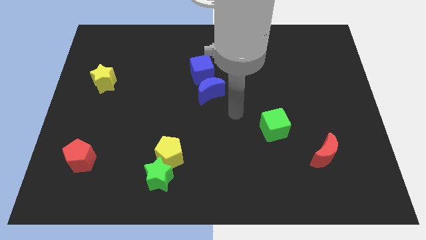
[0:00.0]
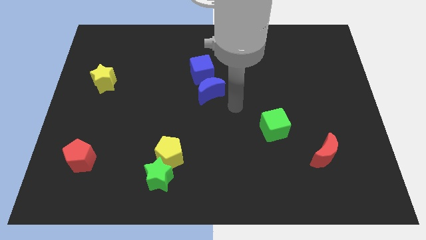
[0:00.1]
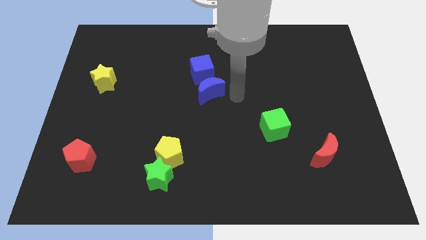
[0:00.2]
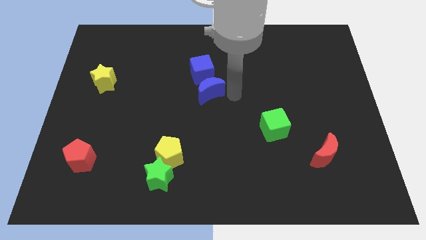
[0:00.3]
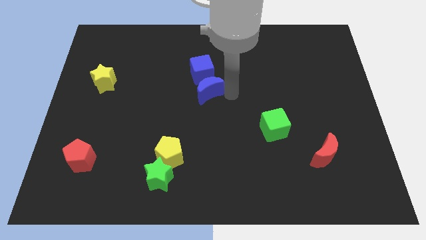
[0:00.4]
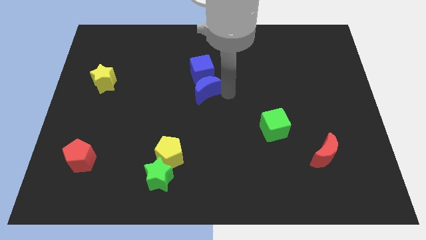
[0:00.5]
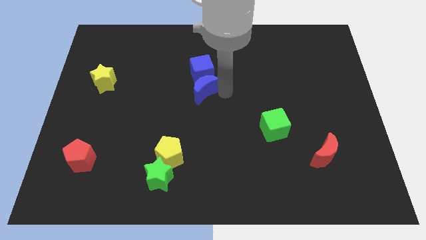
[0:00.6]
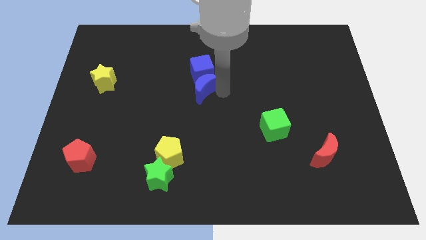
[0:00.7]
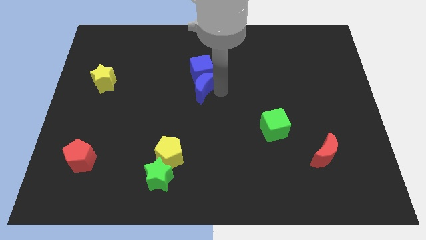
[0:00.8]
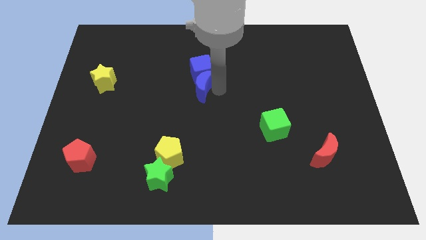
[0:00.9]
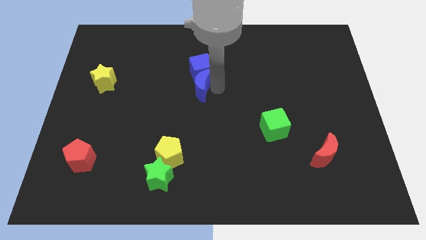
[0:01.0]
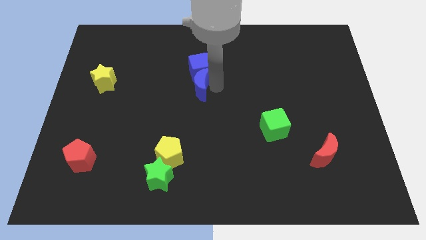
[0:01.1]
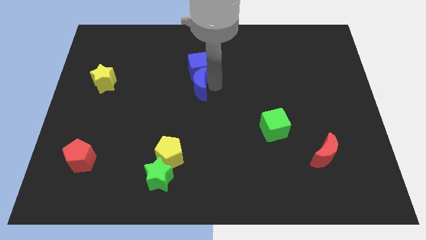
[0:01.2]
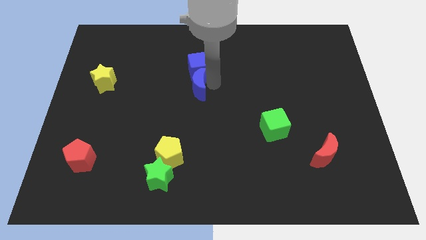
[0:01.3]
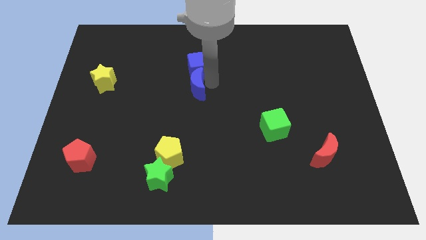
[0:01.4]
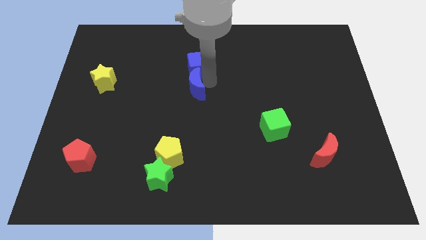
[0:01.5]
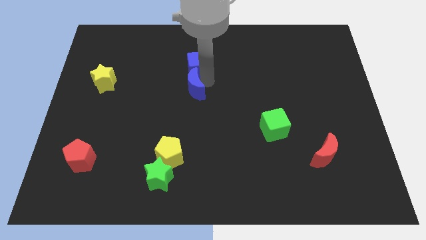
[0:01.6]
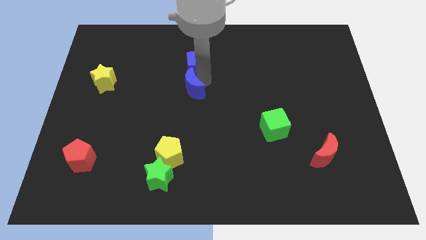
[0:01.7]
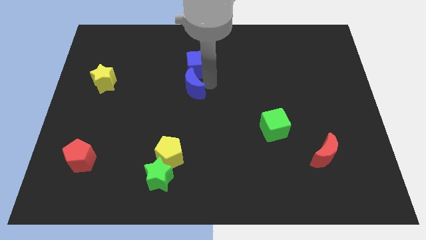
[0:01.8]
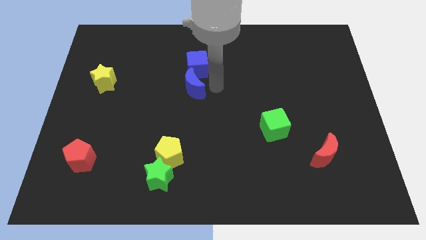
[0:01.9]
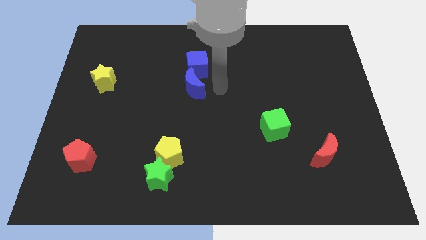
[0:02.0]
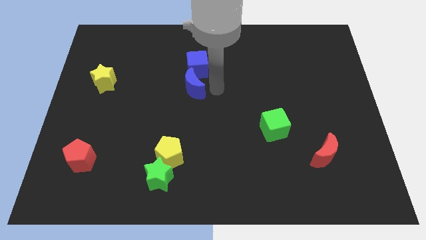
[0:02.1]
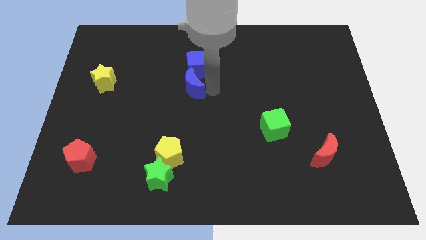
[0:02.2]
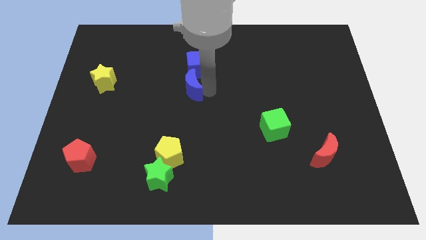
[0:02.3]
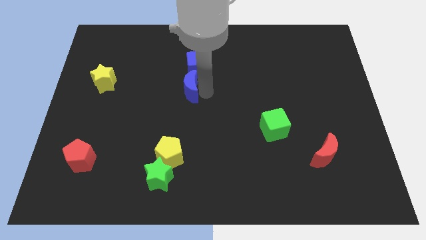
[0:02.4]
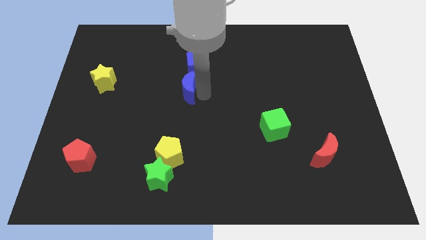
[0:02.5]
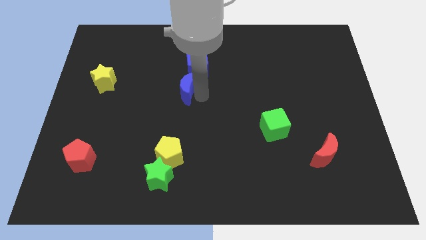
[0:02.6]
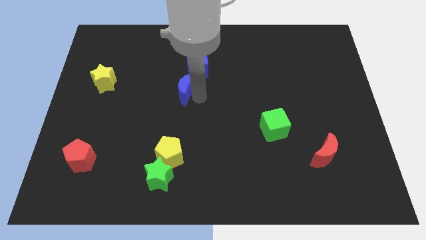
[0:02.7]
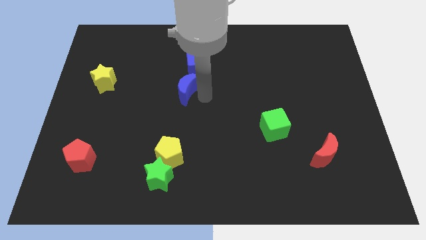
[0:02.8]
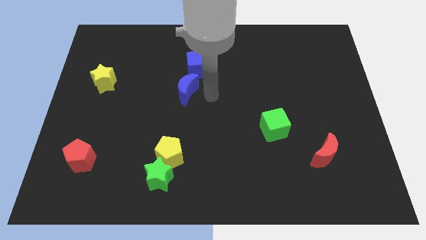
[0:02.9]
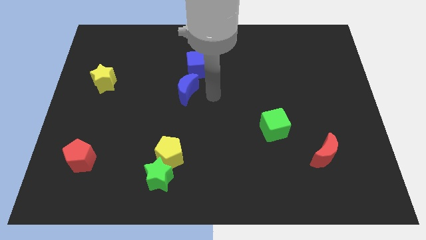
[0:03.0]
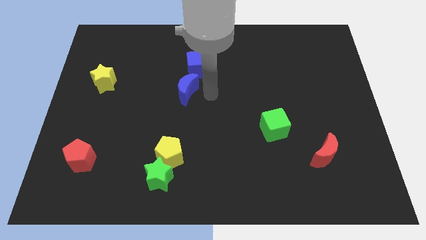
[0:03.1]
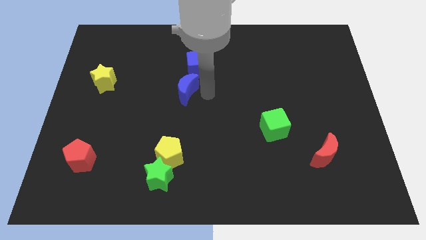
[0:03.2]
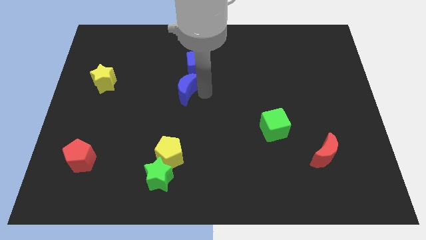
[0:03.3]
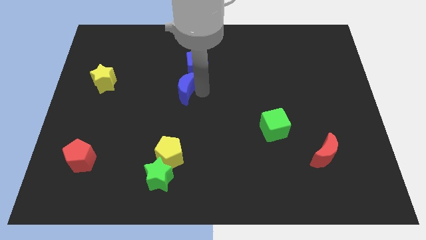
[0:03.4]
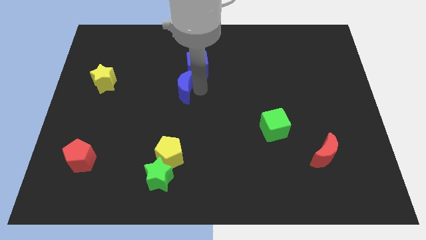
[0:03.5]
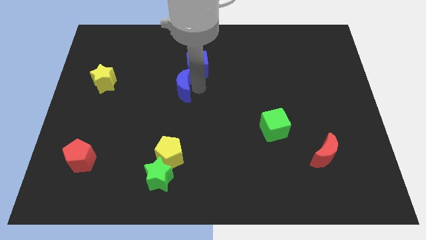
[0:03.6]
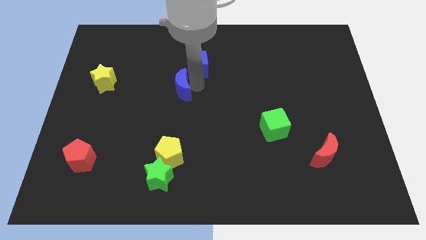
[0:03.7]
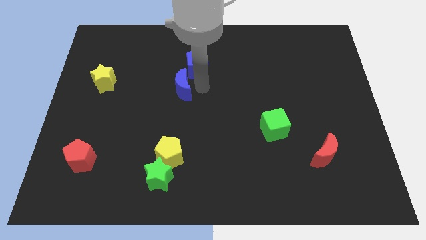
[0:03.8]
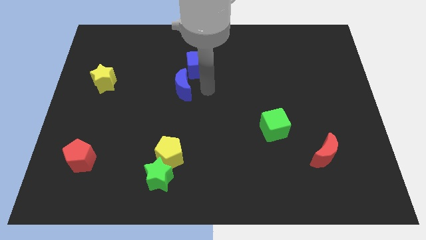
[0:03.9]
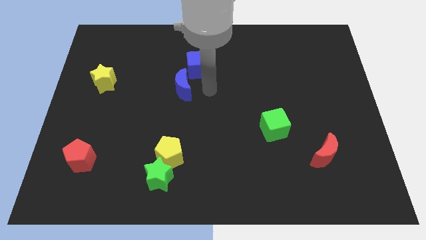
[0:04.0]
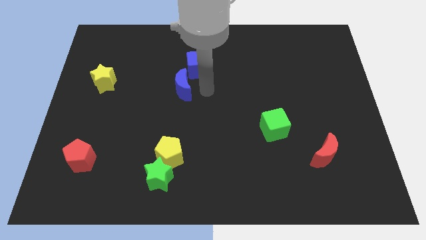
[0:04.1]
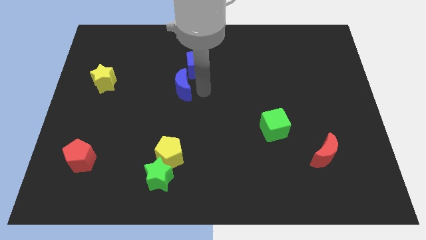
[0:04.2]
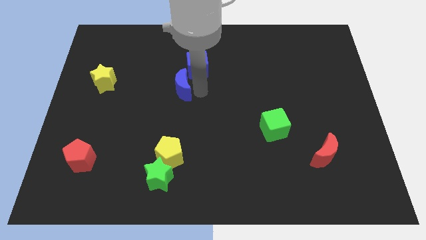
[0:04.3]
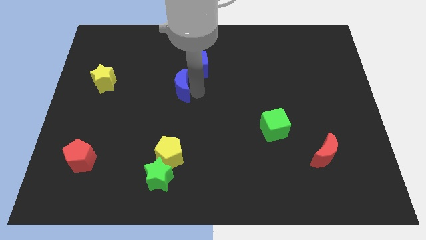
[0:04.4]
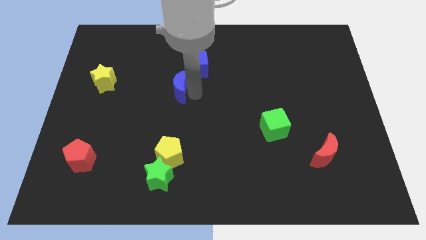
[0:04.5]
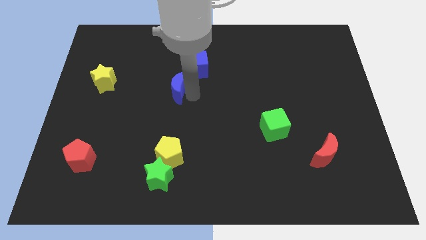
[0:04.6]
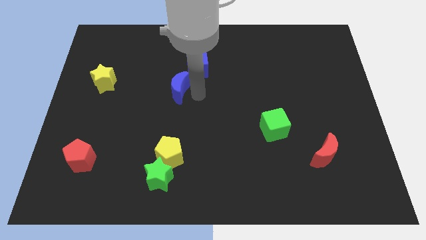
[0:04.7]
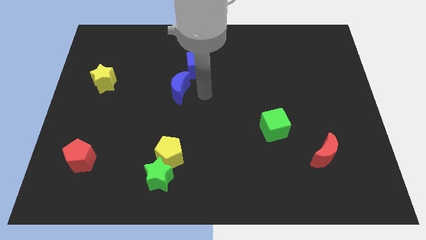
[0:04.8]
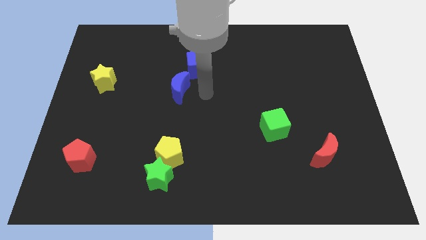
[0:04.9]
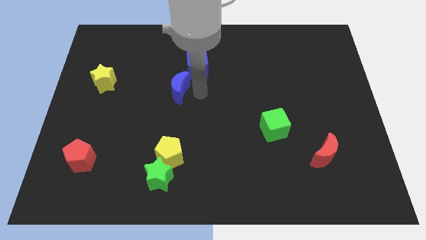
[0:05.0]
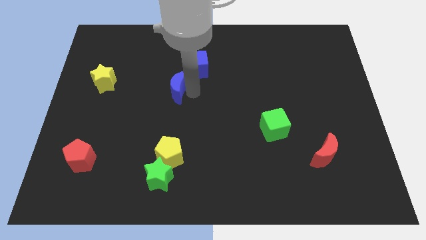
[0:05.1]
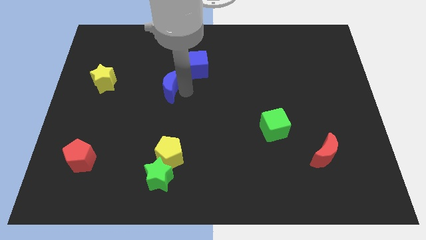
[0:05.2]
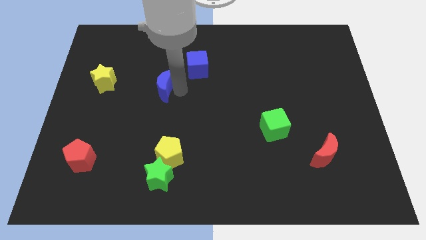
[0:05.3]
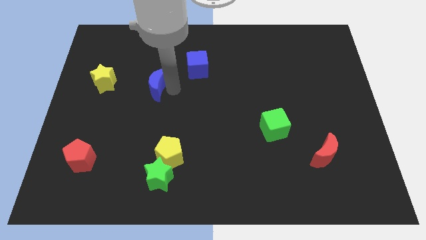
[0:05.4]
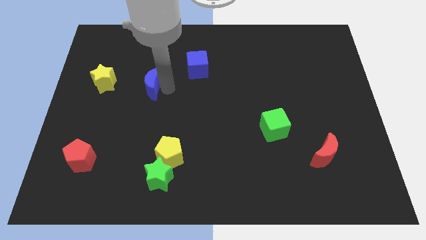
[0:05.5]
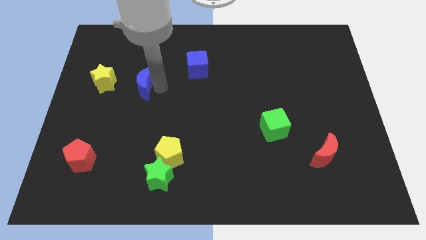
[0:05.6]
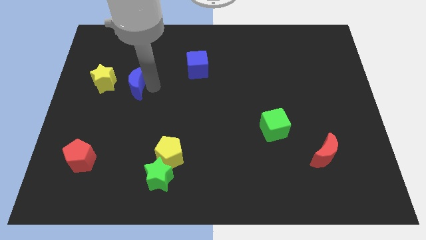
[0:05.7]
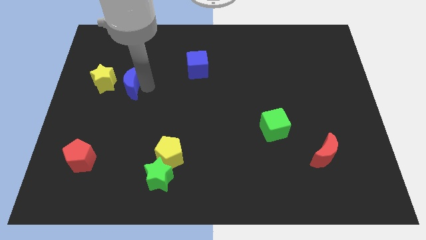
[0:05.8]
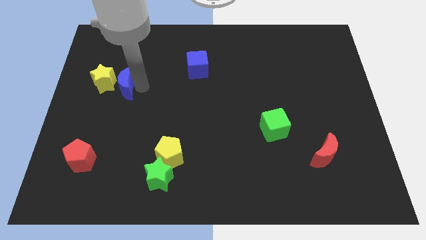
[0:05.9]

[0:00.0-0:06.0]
put the blue moon close to the yellow star

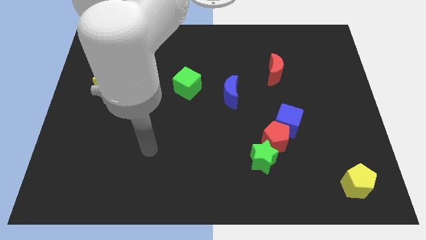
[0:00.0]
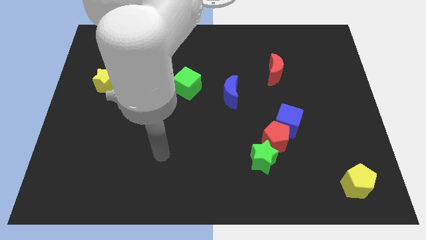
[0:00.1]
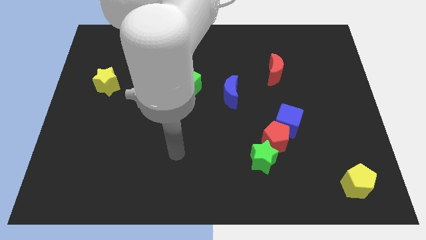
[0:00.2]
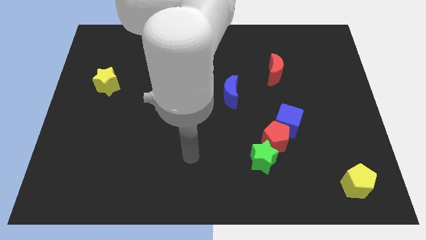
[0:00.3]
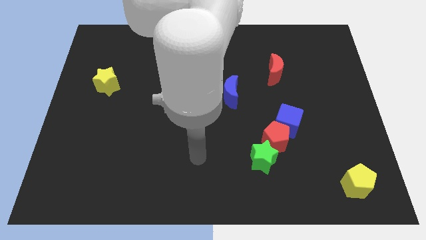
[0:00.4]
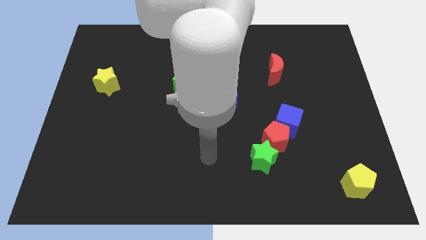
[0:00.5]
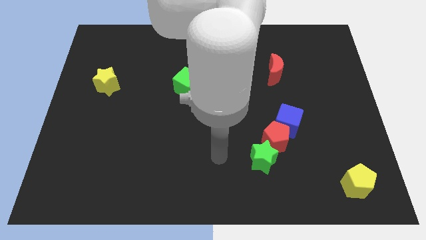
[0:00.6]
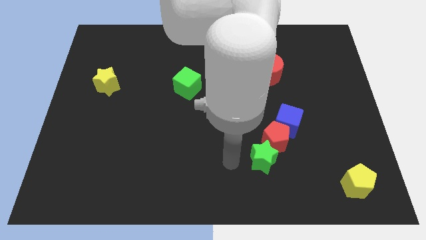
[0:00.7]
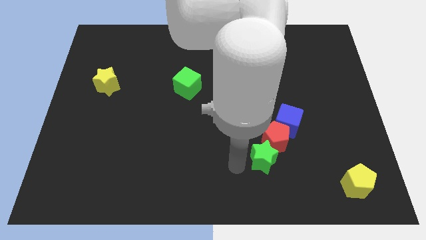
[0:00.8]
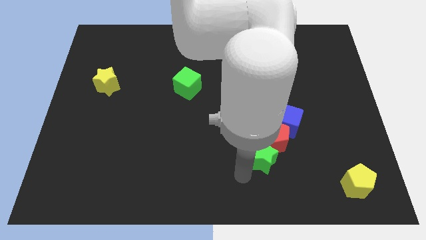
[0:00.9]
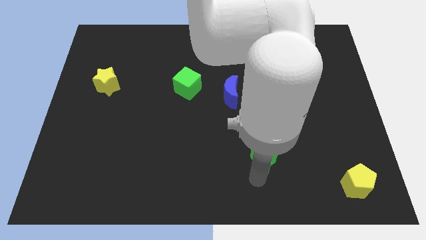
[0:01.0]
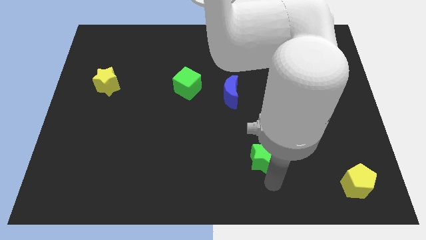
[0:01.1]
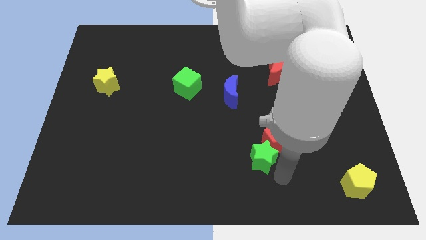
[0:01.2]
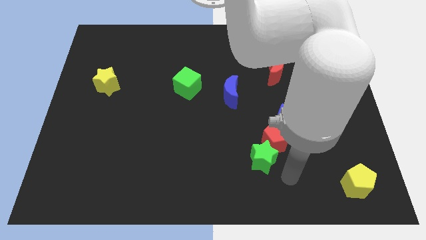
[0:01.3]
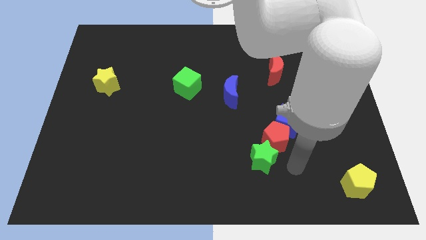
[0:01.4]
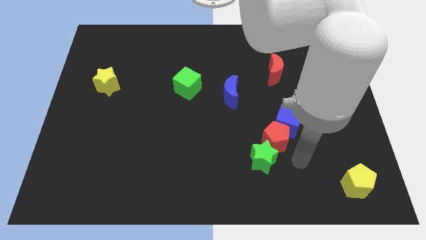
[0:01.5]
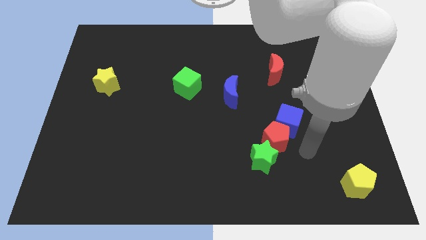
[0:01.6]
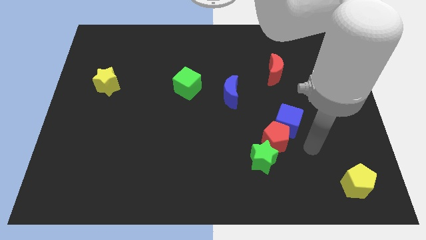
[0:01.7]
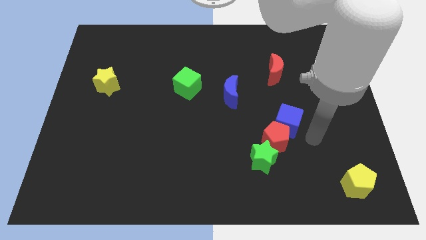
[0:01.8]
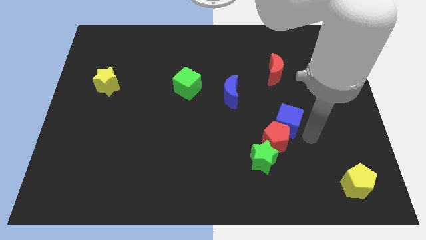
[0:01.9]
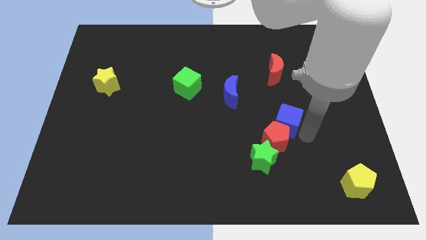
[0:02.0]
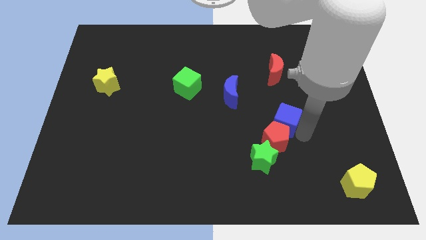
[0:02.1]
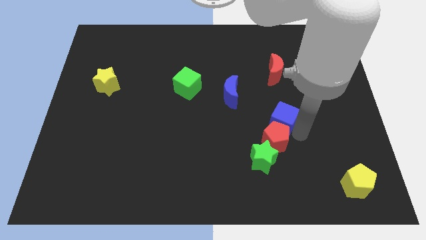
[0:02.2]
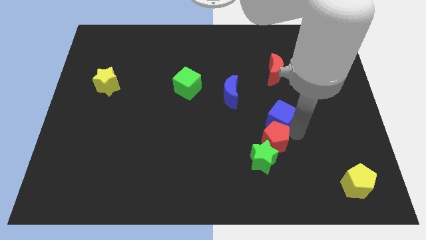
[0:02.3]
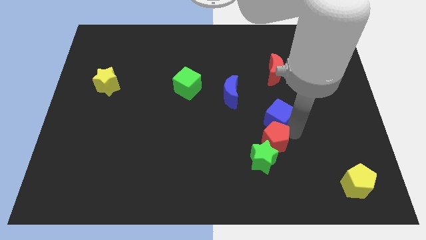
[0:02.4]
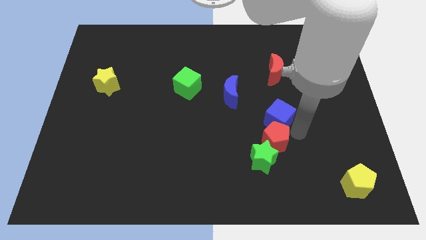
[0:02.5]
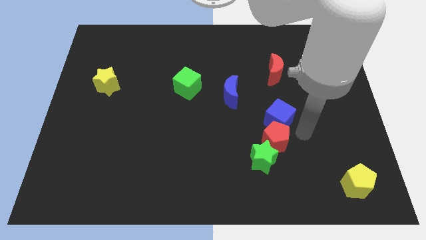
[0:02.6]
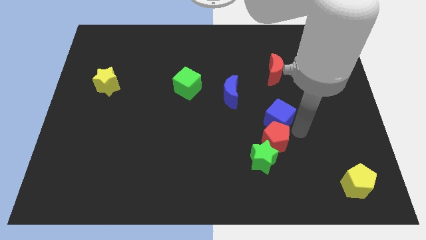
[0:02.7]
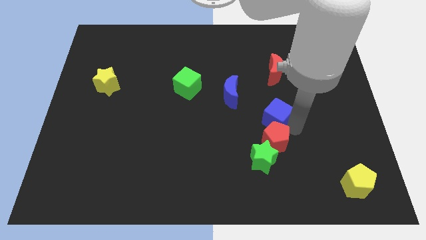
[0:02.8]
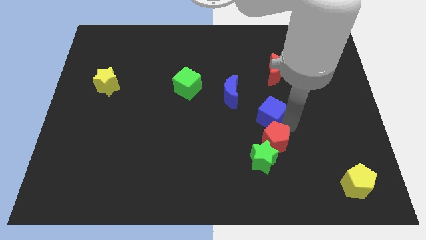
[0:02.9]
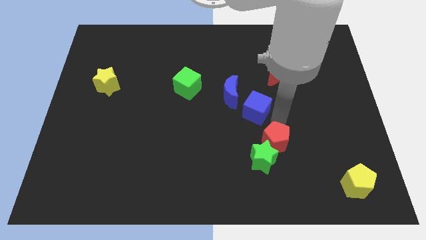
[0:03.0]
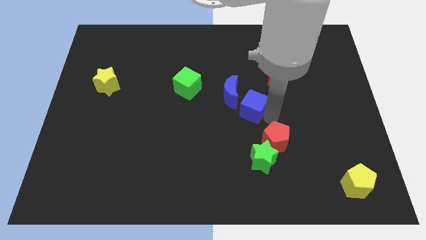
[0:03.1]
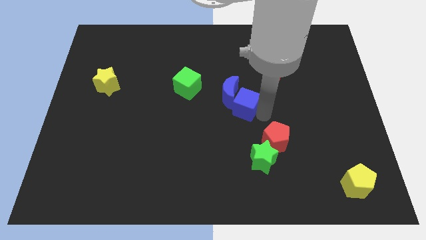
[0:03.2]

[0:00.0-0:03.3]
slide the blue cube to the blue moon
